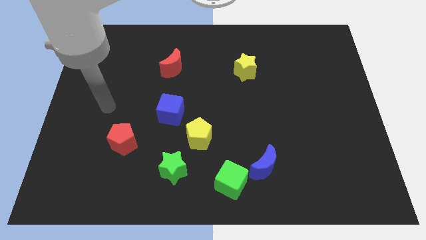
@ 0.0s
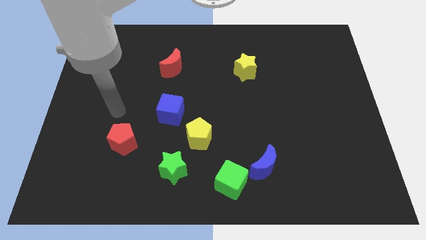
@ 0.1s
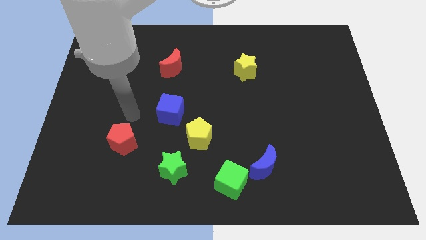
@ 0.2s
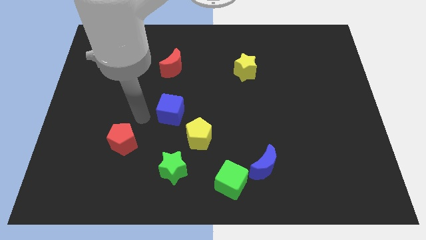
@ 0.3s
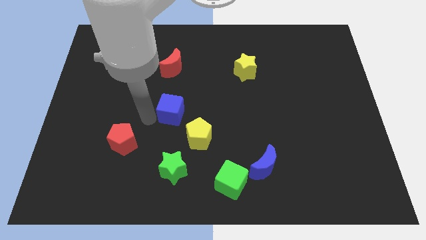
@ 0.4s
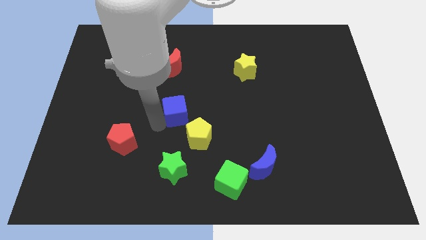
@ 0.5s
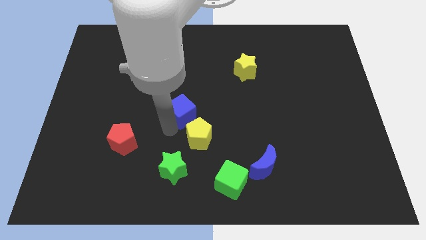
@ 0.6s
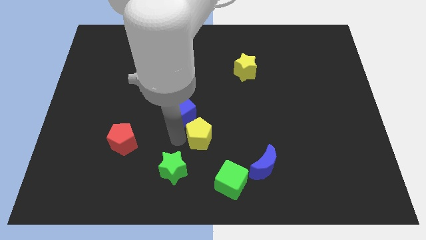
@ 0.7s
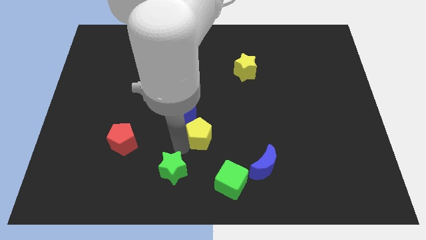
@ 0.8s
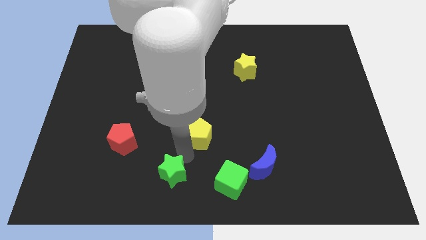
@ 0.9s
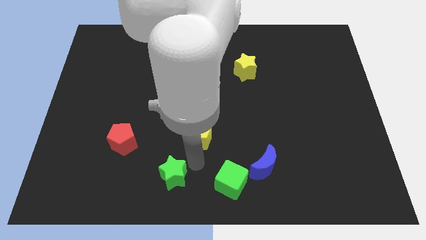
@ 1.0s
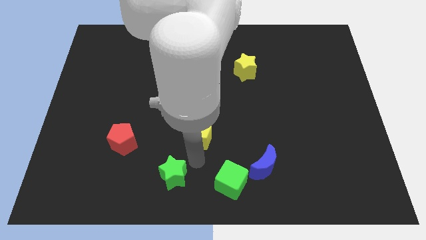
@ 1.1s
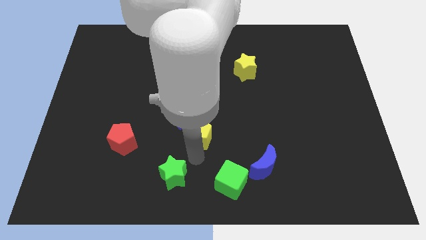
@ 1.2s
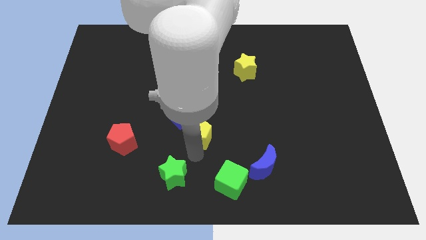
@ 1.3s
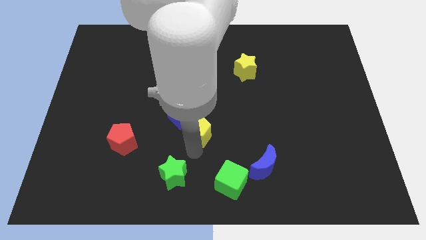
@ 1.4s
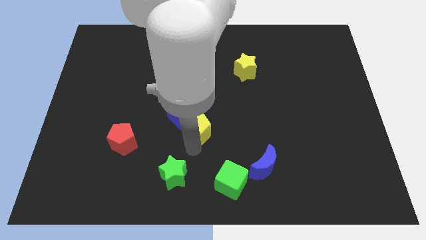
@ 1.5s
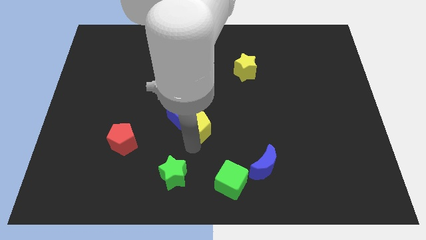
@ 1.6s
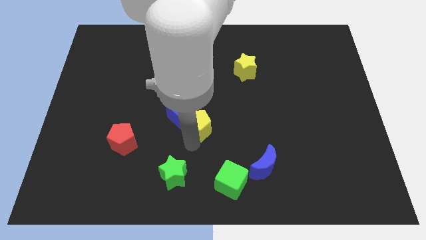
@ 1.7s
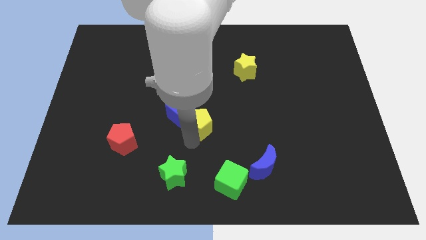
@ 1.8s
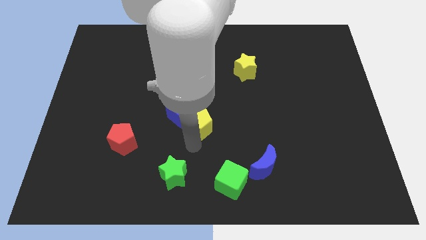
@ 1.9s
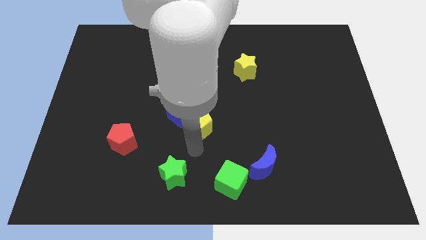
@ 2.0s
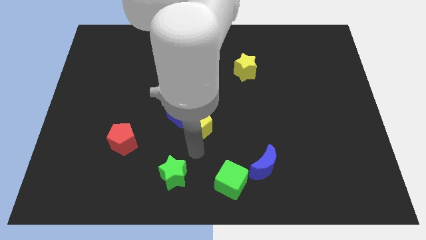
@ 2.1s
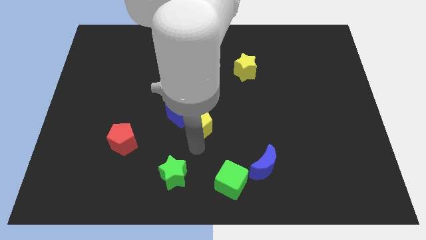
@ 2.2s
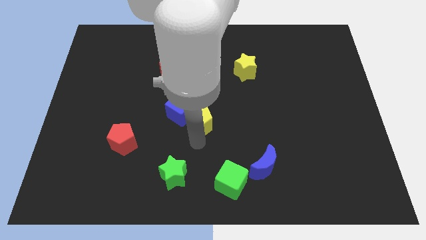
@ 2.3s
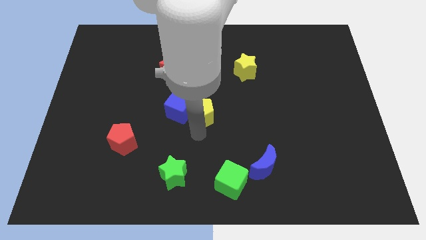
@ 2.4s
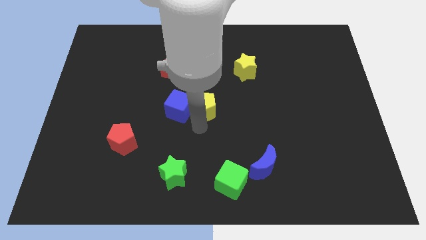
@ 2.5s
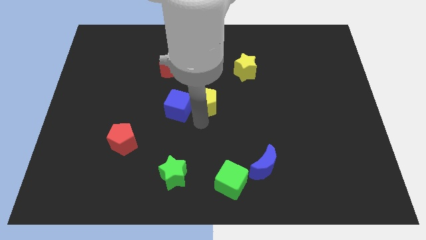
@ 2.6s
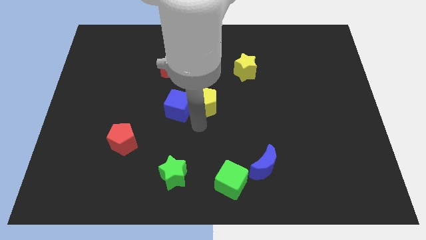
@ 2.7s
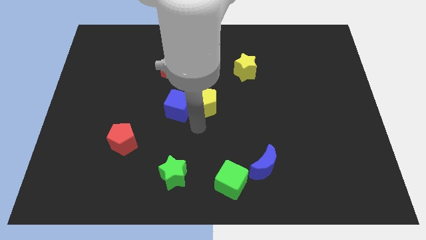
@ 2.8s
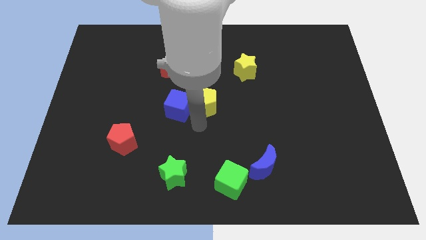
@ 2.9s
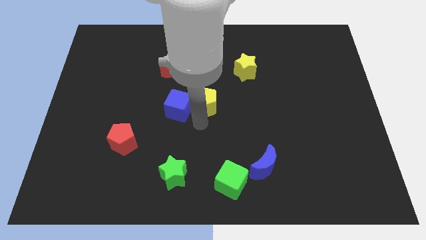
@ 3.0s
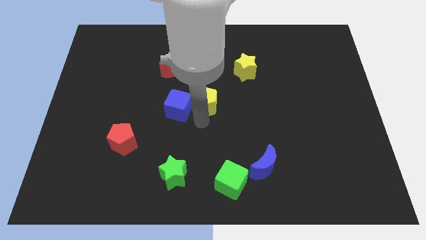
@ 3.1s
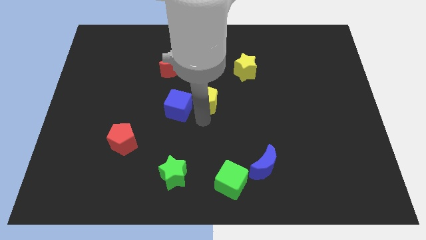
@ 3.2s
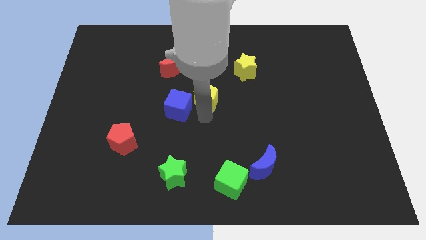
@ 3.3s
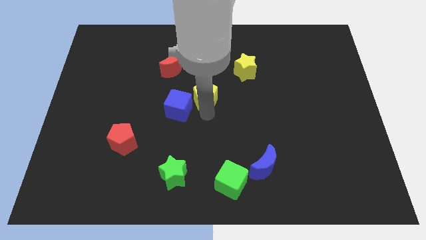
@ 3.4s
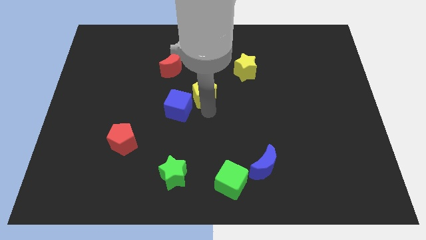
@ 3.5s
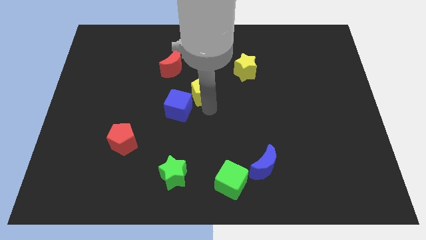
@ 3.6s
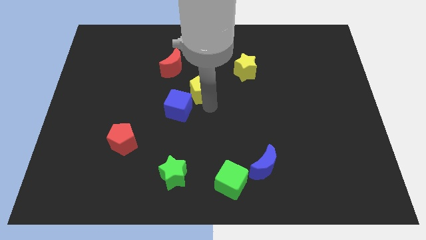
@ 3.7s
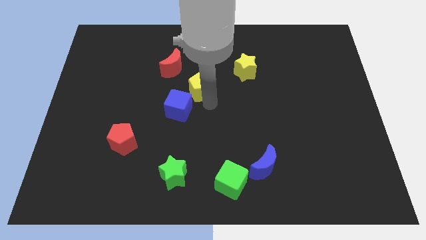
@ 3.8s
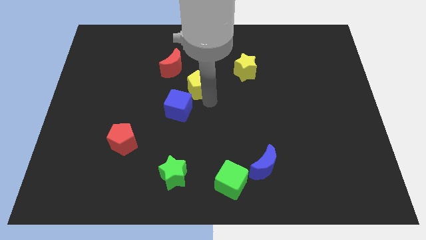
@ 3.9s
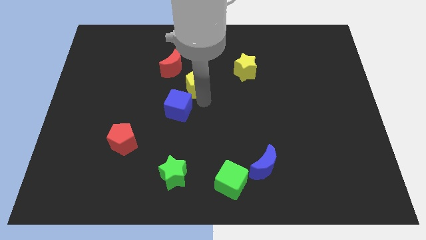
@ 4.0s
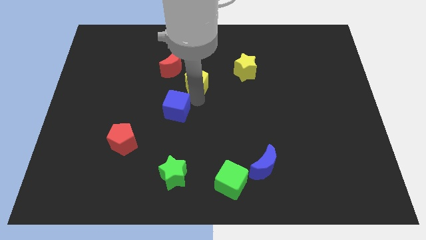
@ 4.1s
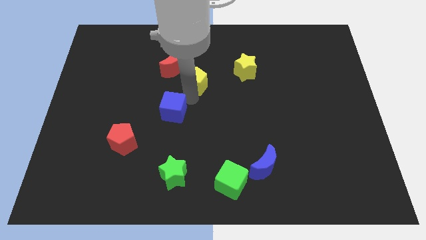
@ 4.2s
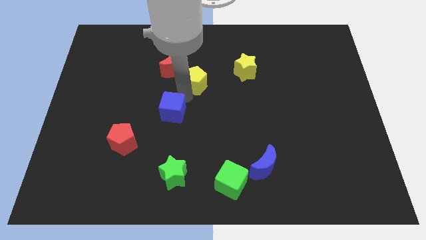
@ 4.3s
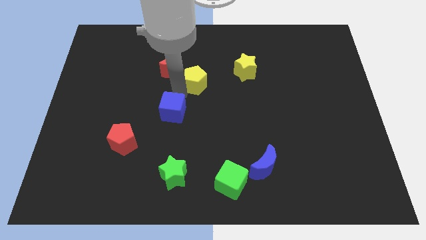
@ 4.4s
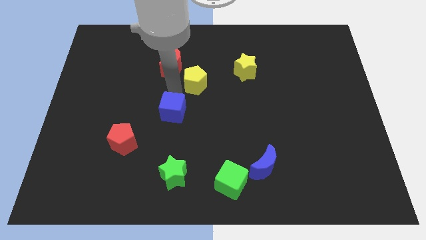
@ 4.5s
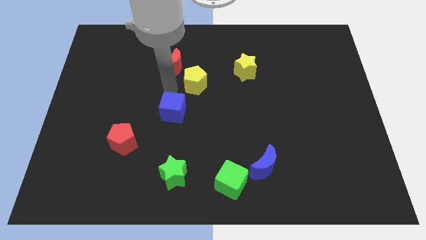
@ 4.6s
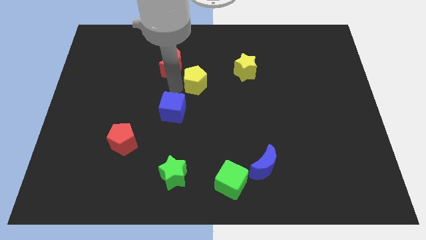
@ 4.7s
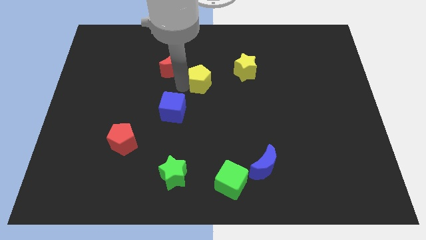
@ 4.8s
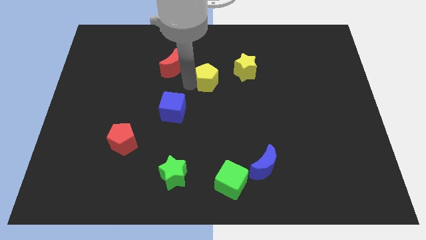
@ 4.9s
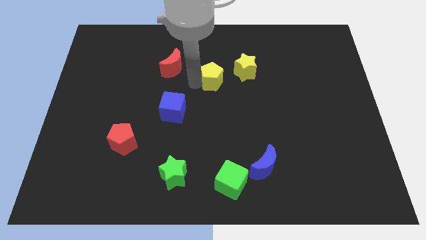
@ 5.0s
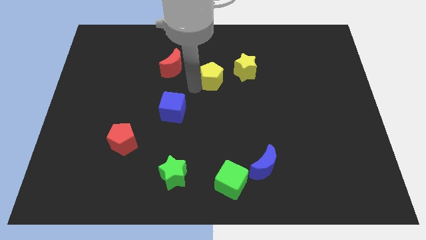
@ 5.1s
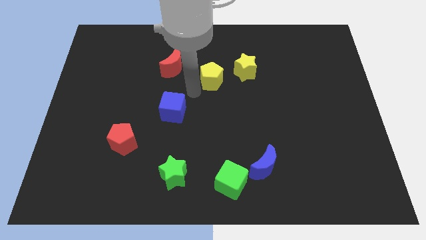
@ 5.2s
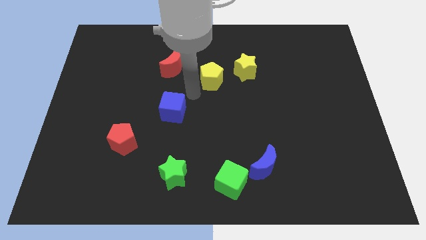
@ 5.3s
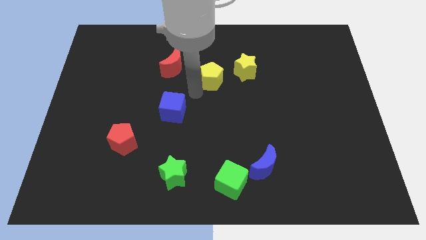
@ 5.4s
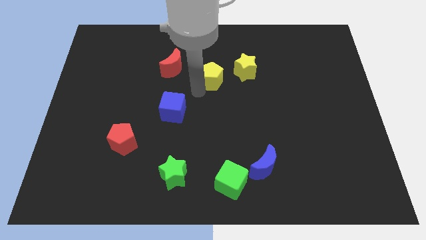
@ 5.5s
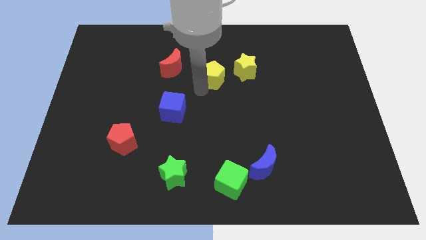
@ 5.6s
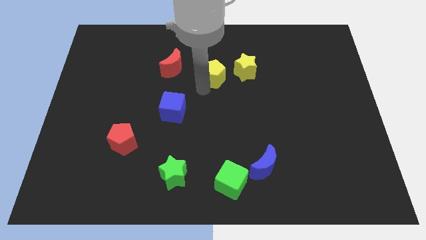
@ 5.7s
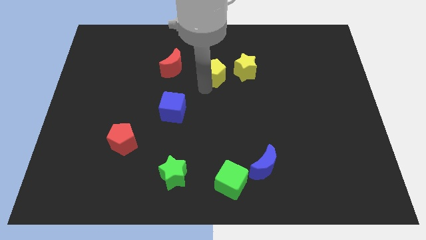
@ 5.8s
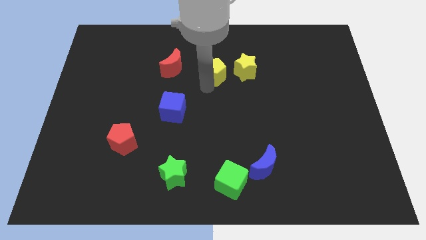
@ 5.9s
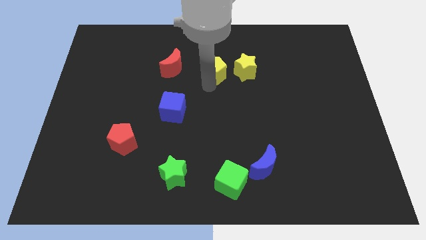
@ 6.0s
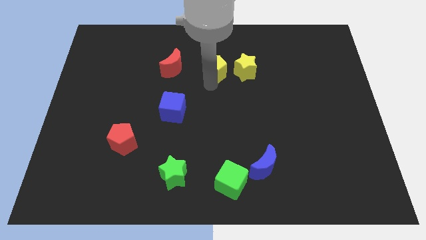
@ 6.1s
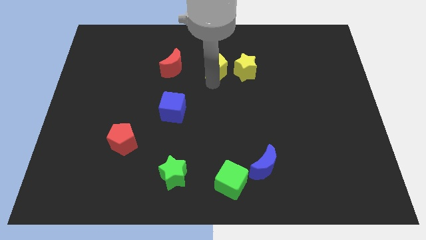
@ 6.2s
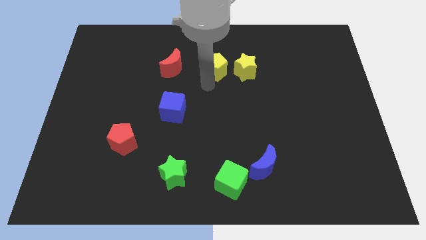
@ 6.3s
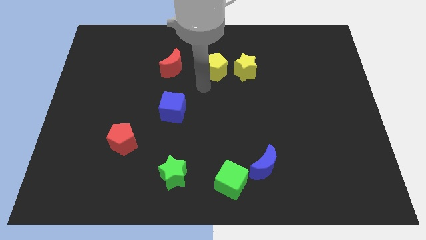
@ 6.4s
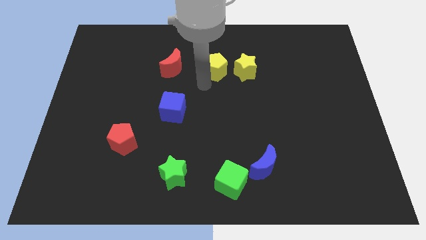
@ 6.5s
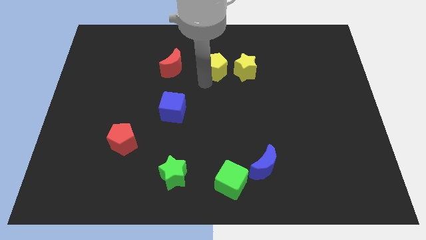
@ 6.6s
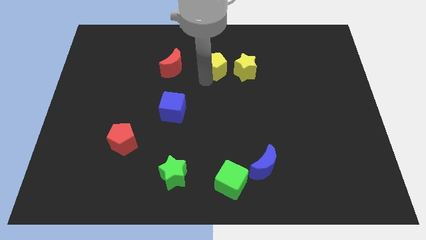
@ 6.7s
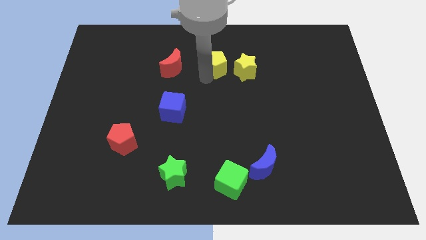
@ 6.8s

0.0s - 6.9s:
slide the yellow pentagon diagonally up and to the left of the yellow star

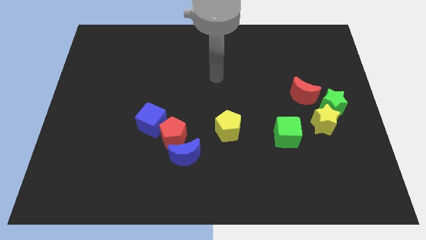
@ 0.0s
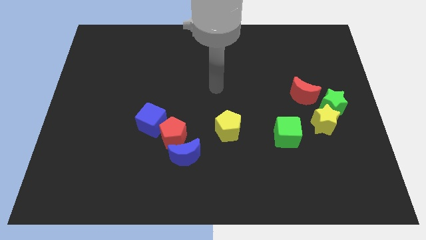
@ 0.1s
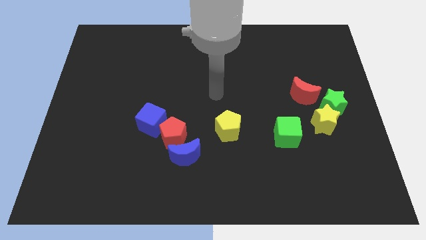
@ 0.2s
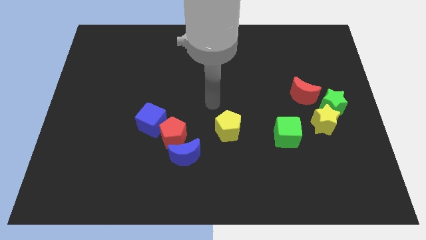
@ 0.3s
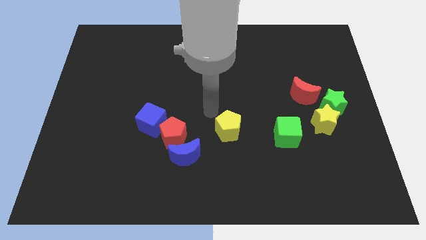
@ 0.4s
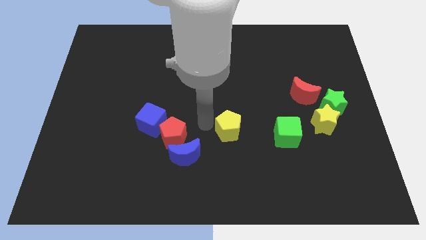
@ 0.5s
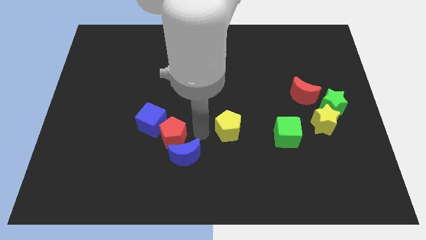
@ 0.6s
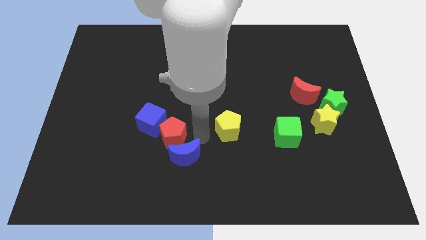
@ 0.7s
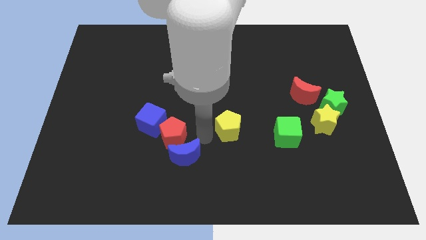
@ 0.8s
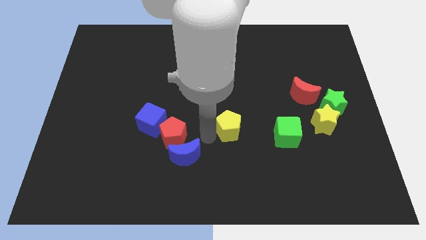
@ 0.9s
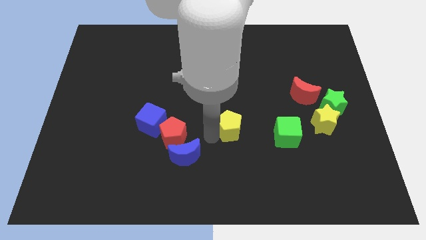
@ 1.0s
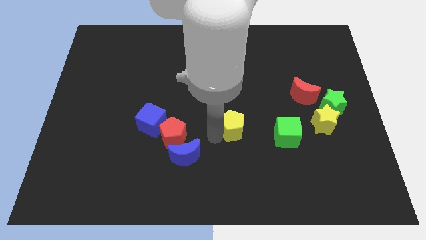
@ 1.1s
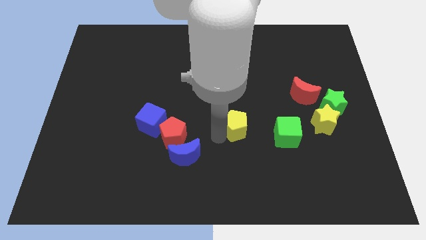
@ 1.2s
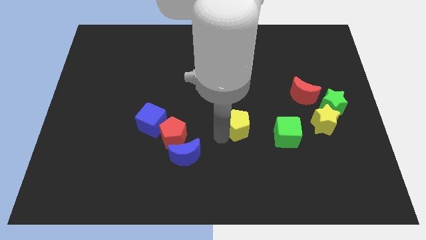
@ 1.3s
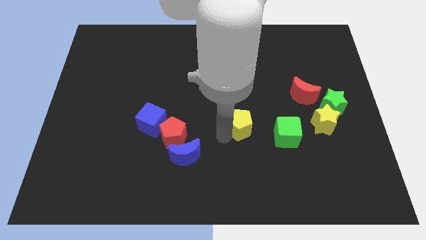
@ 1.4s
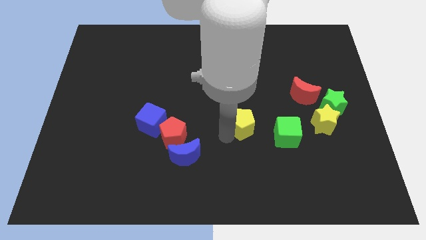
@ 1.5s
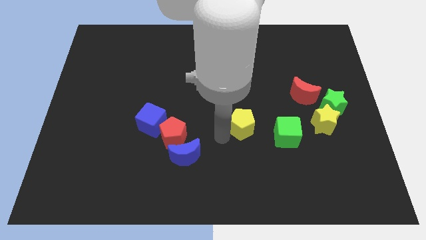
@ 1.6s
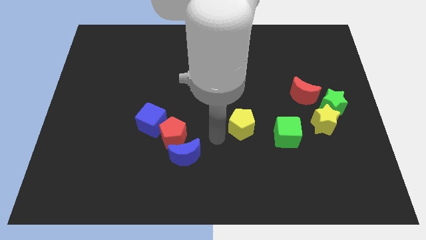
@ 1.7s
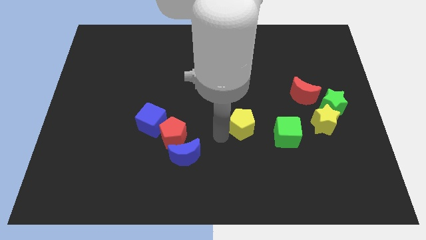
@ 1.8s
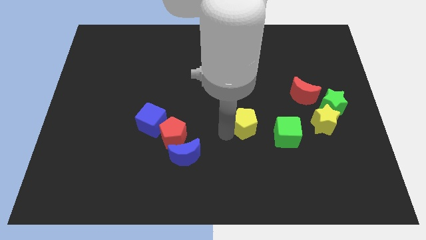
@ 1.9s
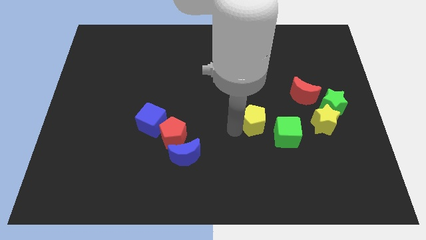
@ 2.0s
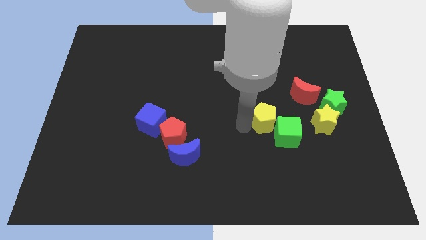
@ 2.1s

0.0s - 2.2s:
put the yellow pentagon to the bottom left of the red moon
